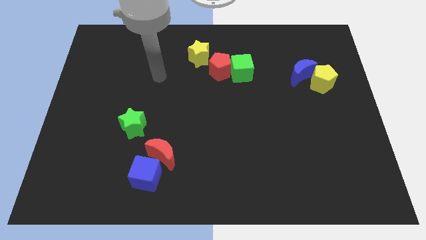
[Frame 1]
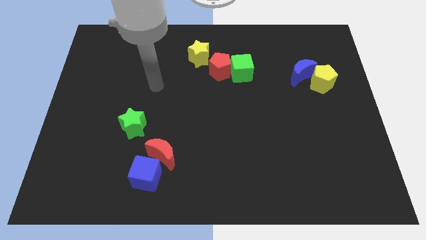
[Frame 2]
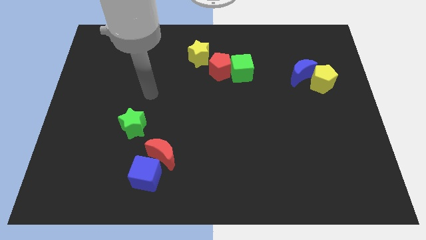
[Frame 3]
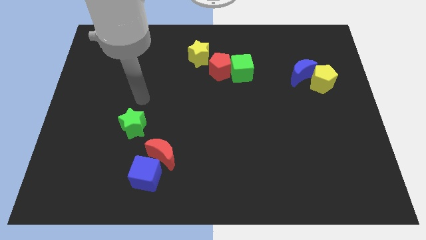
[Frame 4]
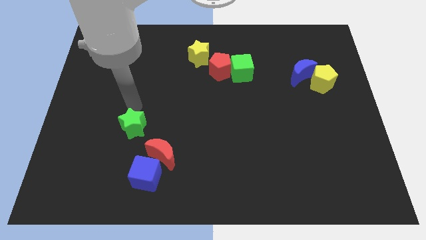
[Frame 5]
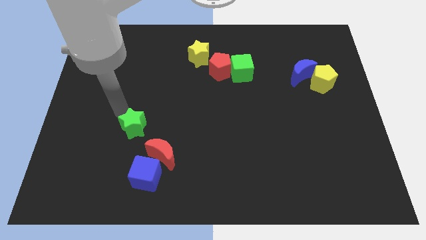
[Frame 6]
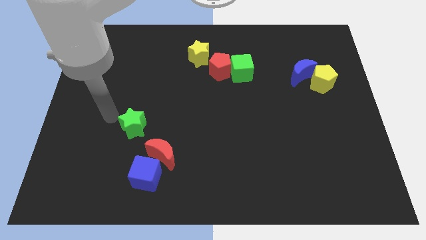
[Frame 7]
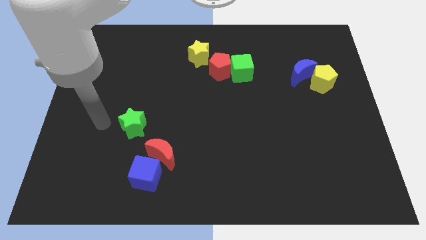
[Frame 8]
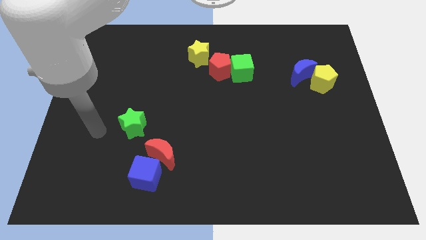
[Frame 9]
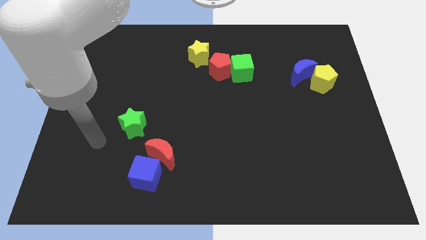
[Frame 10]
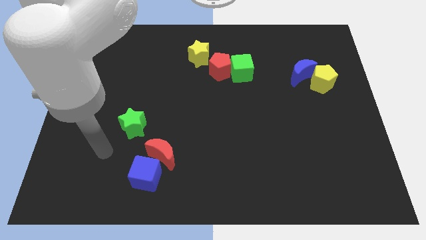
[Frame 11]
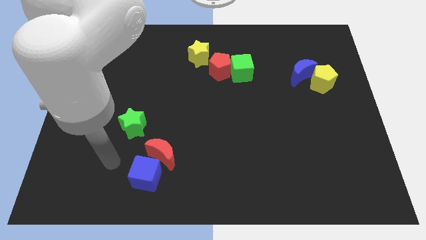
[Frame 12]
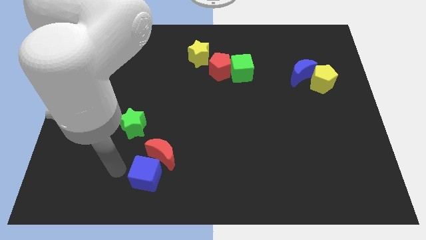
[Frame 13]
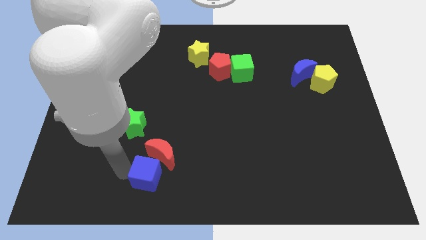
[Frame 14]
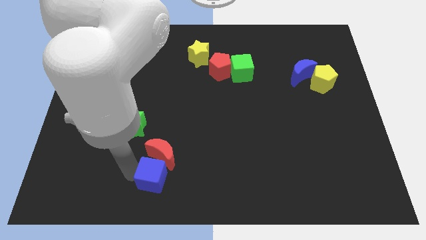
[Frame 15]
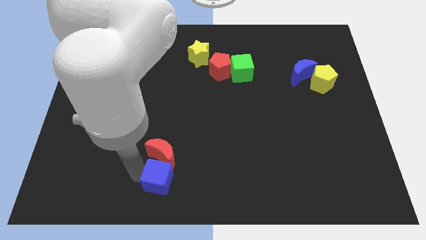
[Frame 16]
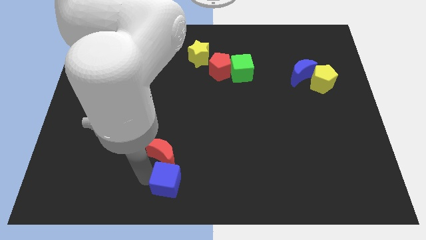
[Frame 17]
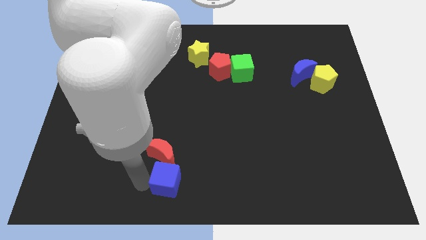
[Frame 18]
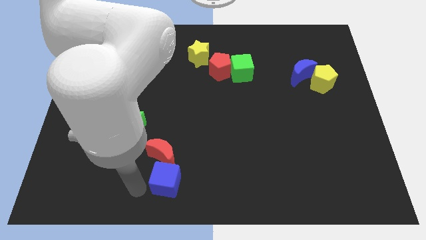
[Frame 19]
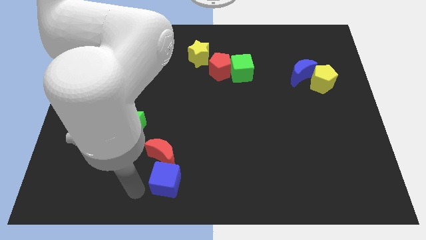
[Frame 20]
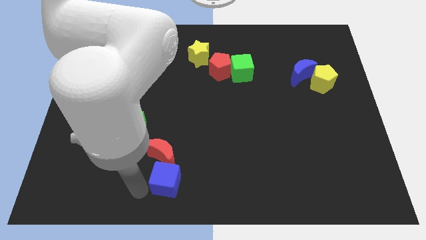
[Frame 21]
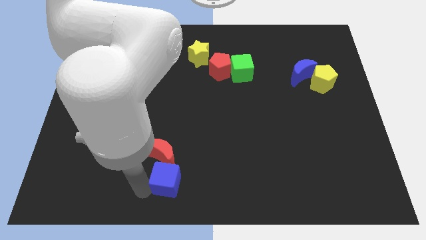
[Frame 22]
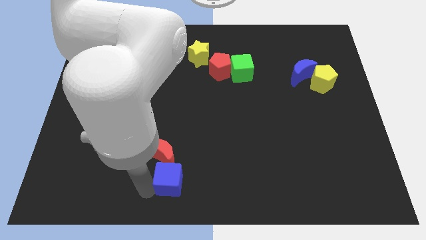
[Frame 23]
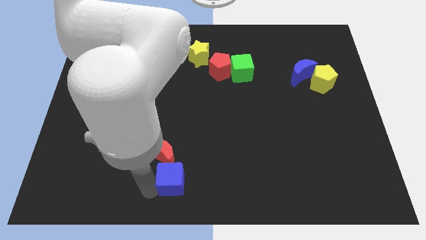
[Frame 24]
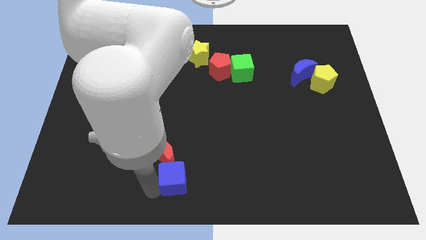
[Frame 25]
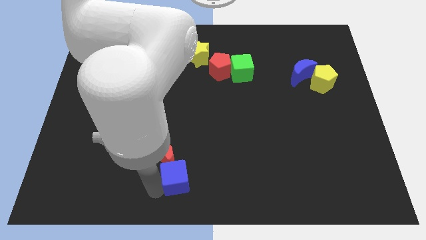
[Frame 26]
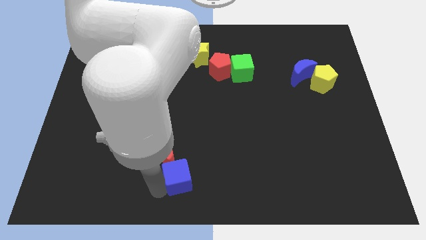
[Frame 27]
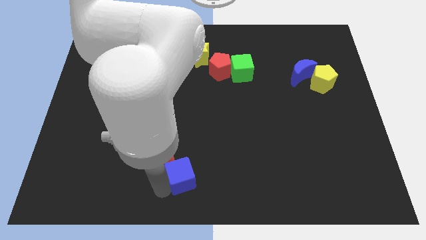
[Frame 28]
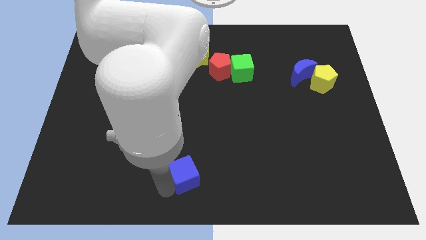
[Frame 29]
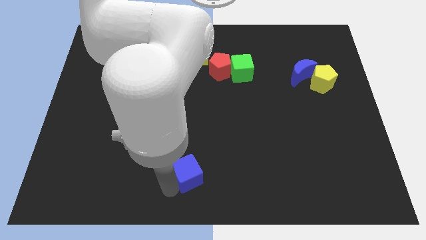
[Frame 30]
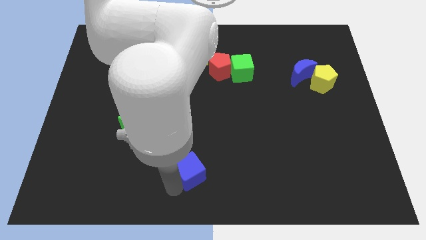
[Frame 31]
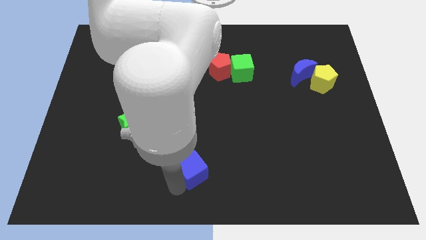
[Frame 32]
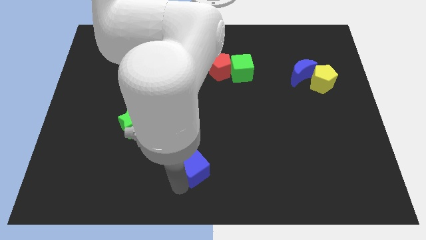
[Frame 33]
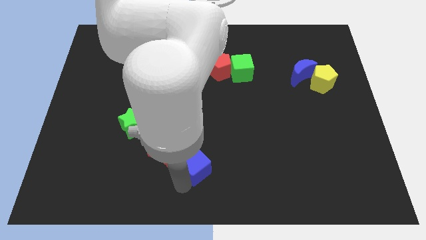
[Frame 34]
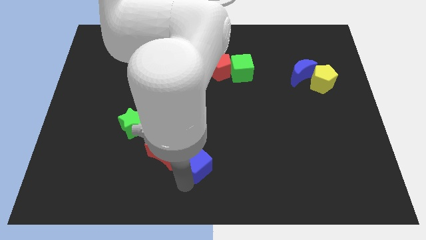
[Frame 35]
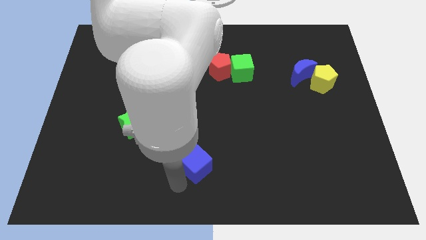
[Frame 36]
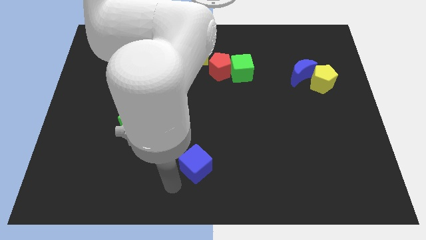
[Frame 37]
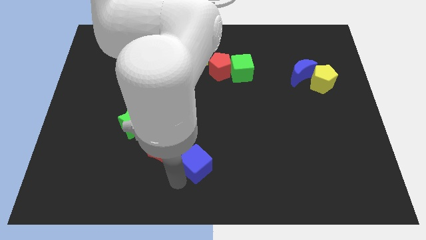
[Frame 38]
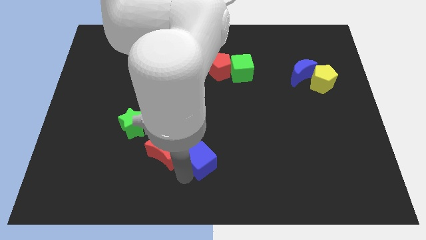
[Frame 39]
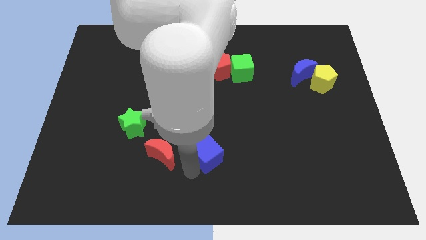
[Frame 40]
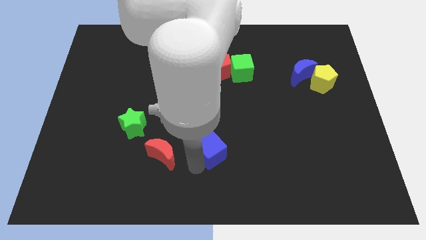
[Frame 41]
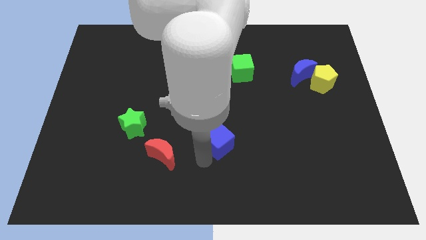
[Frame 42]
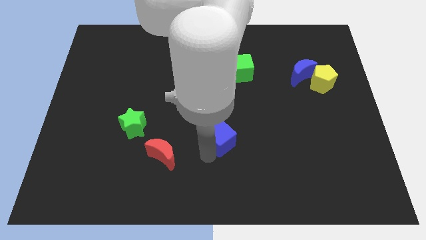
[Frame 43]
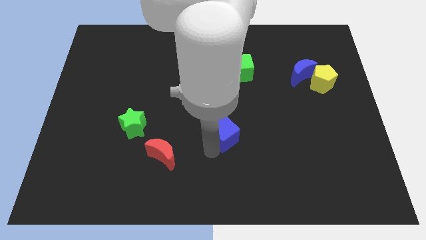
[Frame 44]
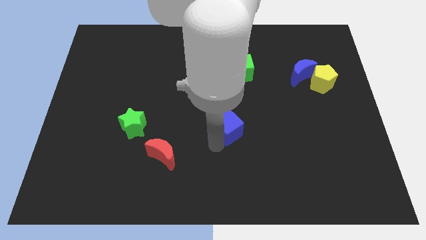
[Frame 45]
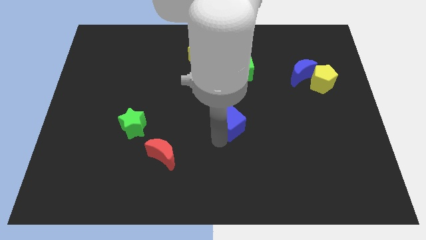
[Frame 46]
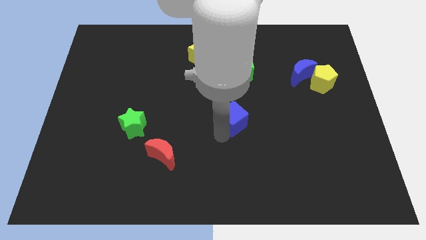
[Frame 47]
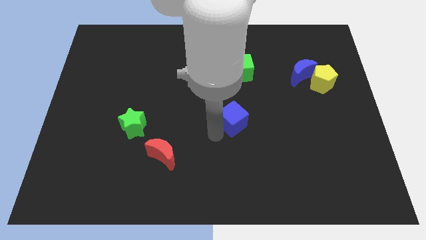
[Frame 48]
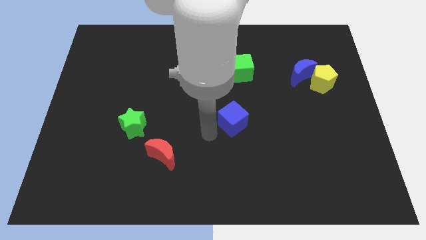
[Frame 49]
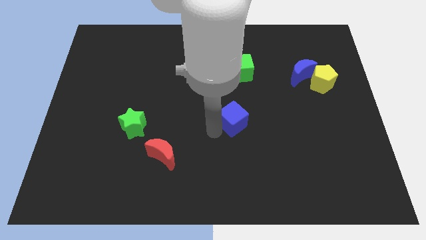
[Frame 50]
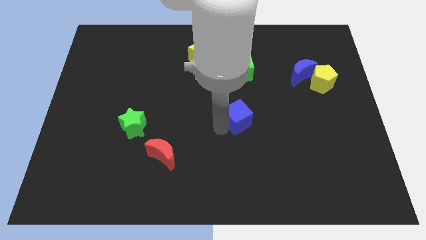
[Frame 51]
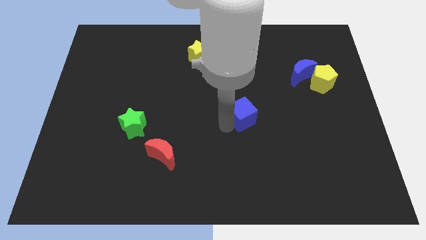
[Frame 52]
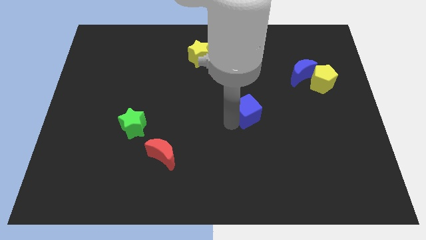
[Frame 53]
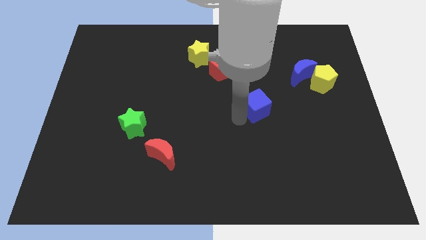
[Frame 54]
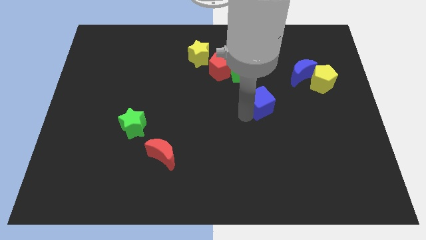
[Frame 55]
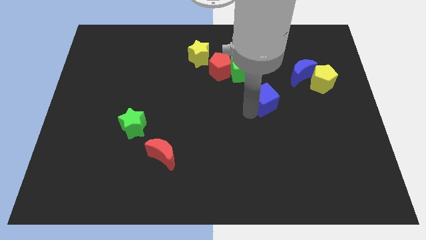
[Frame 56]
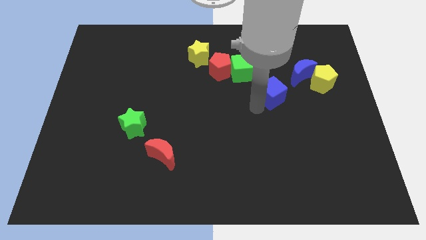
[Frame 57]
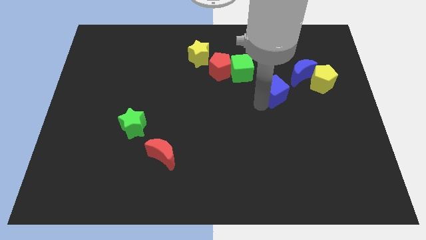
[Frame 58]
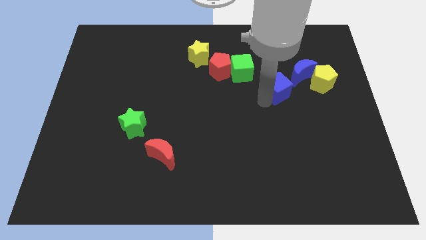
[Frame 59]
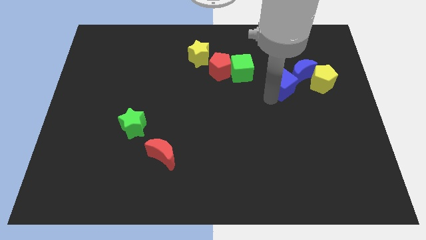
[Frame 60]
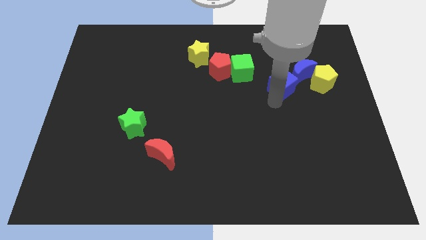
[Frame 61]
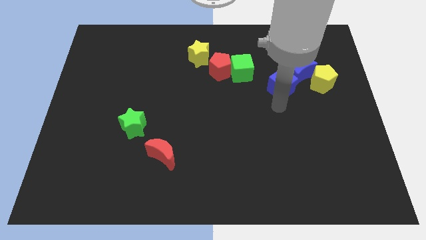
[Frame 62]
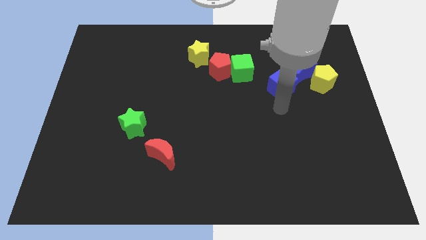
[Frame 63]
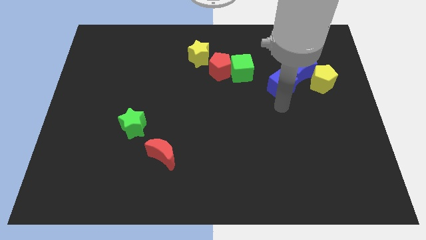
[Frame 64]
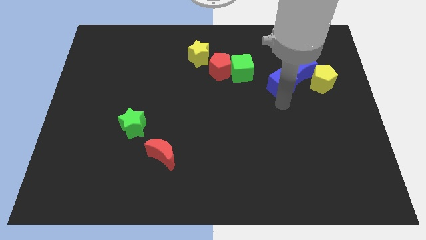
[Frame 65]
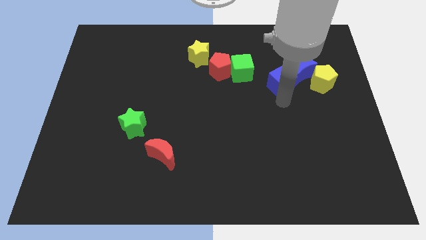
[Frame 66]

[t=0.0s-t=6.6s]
move the blue cube to the right of the green cube

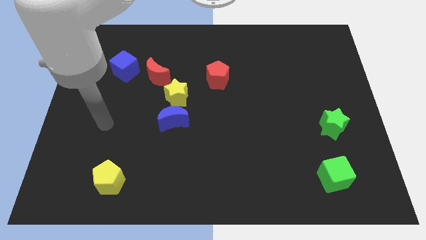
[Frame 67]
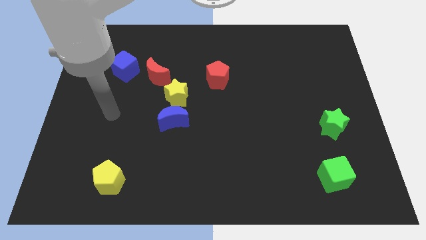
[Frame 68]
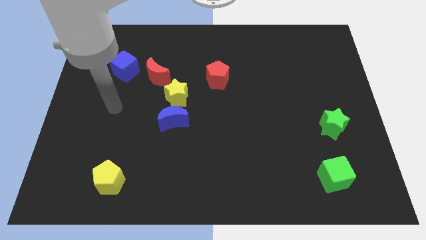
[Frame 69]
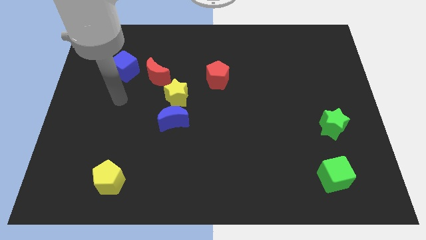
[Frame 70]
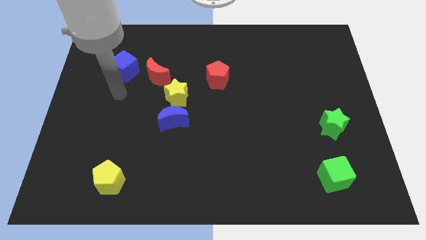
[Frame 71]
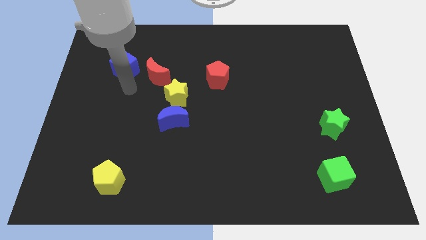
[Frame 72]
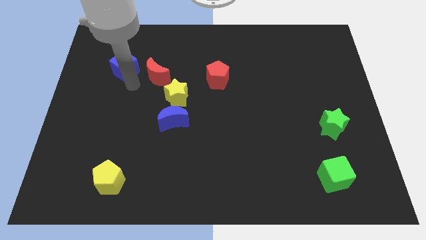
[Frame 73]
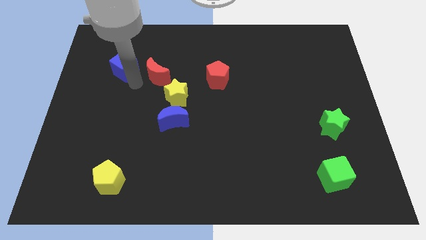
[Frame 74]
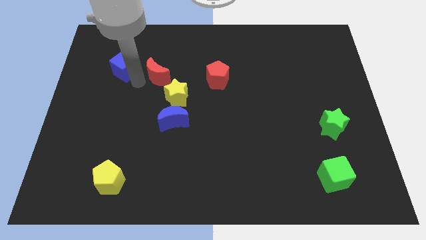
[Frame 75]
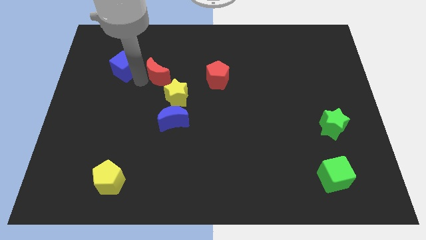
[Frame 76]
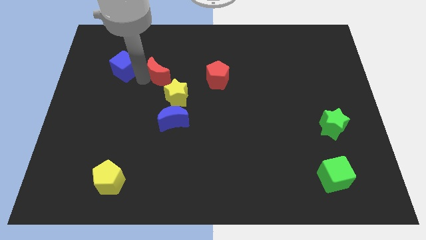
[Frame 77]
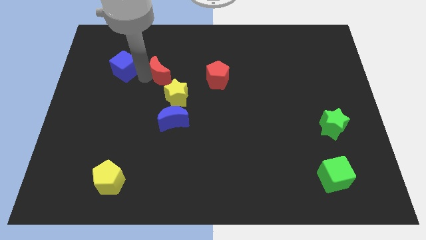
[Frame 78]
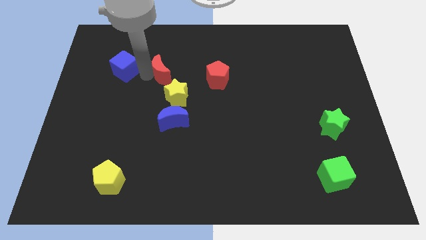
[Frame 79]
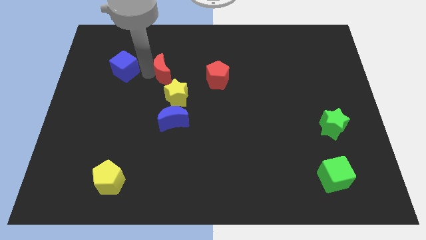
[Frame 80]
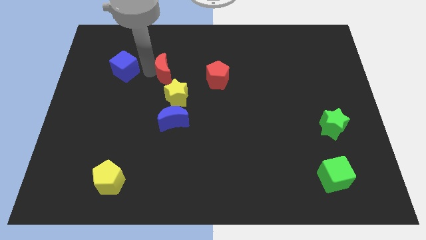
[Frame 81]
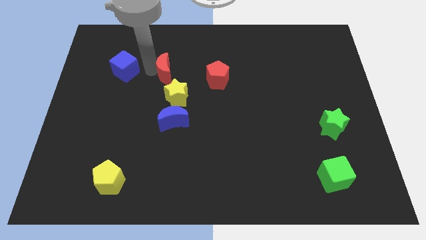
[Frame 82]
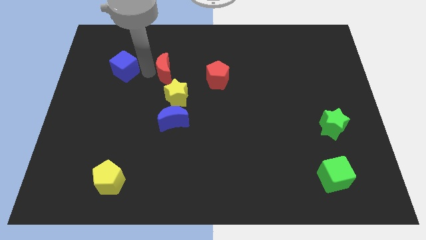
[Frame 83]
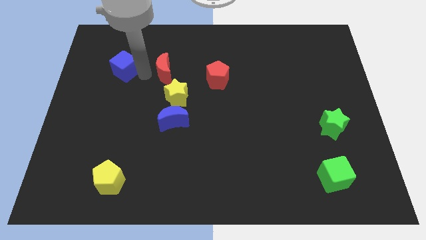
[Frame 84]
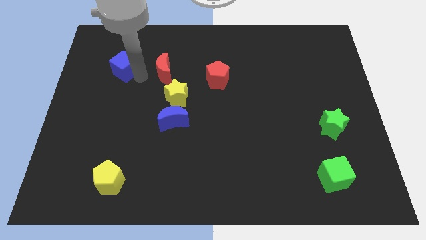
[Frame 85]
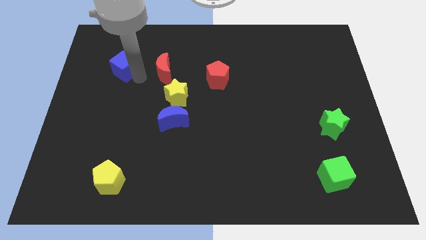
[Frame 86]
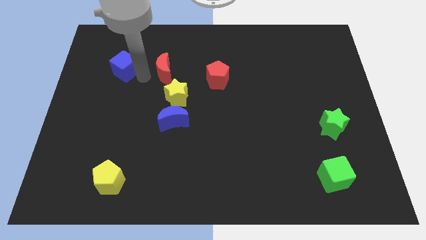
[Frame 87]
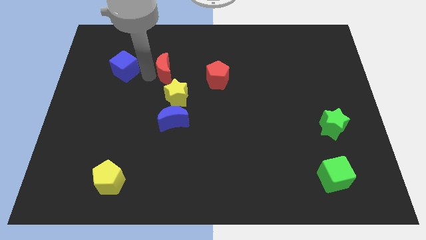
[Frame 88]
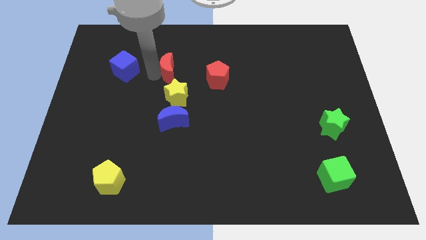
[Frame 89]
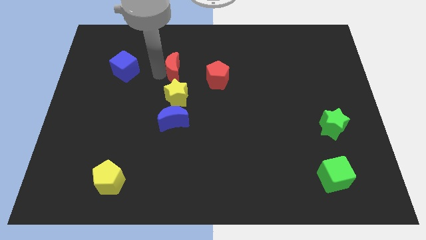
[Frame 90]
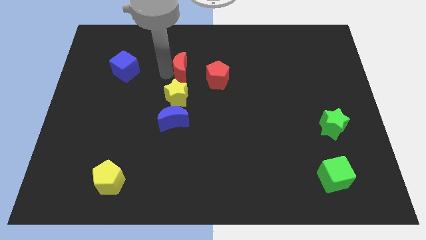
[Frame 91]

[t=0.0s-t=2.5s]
slide the red moon diagonally up and to the left of the red pentagon
